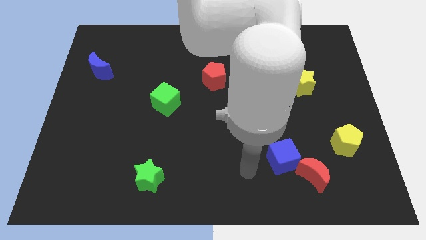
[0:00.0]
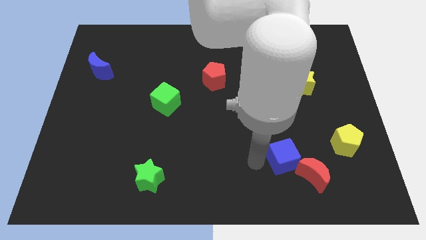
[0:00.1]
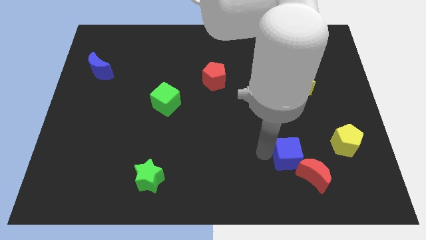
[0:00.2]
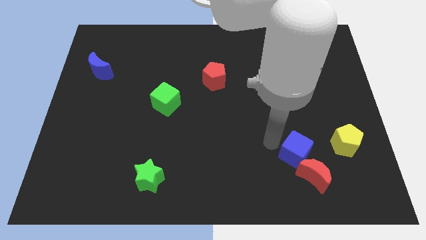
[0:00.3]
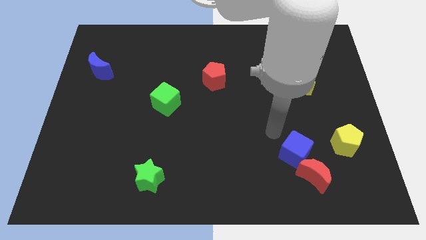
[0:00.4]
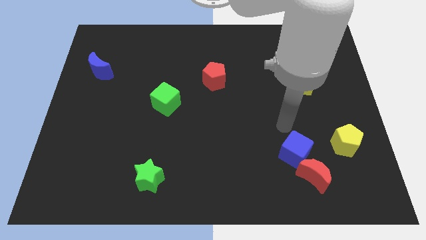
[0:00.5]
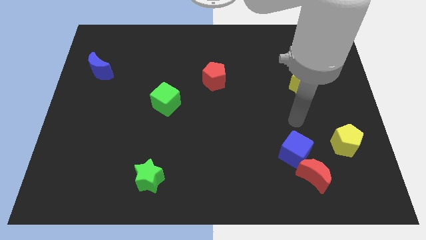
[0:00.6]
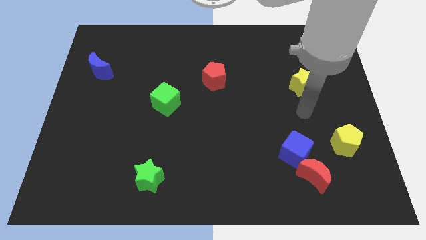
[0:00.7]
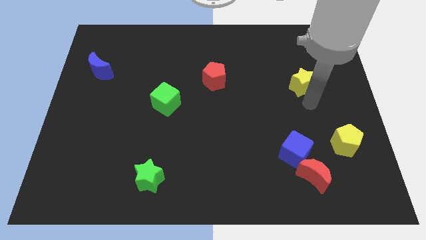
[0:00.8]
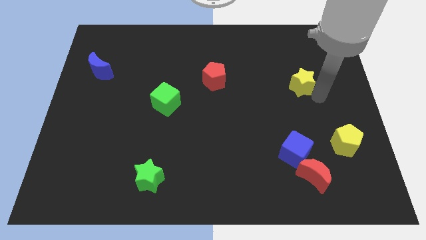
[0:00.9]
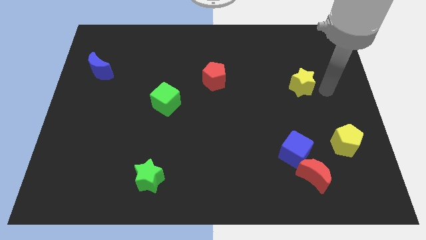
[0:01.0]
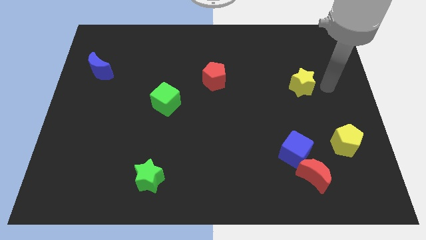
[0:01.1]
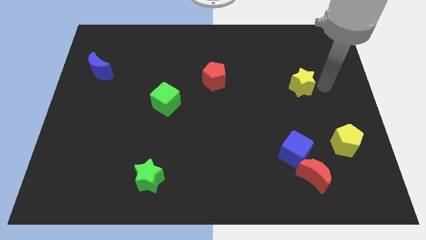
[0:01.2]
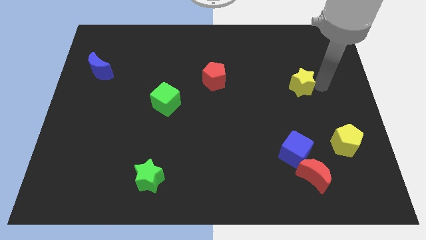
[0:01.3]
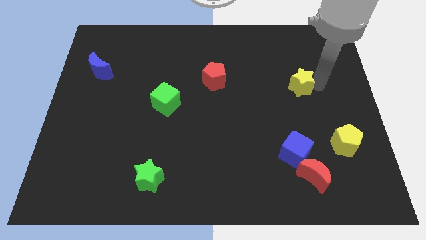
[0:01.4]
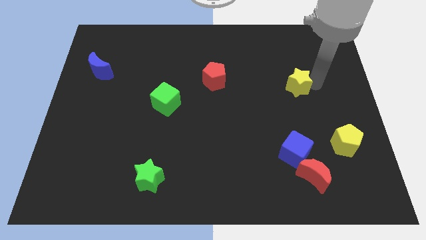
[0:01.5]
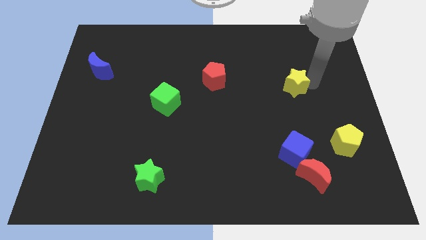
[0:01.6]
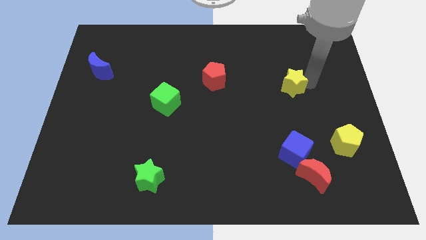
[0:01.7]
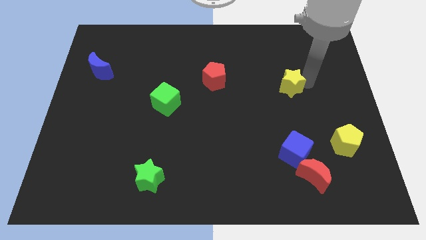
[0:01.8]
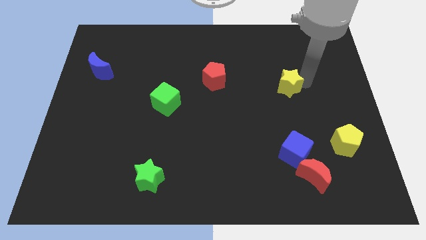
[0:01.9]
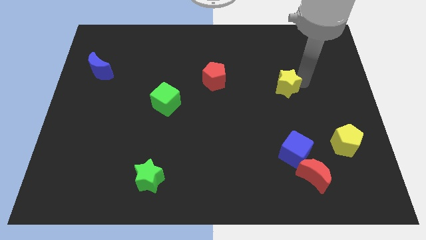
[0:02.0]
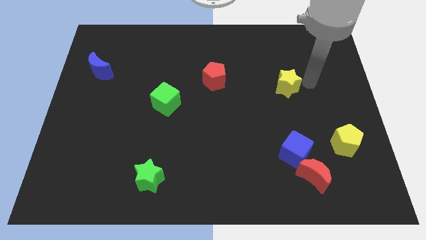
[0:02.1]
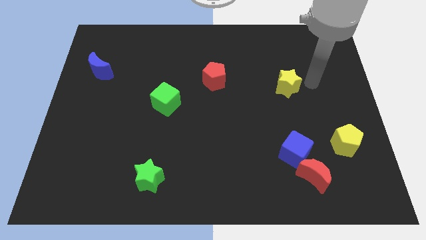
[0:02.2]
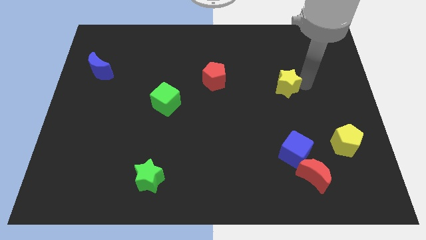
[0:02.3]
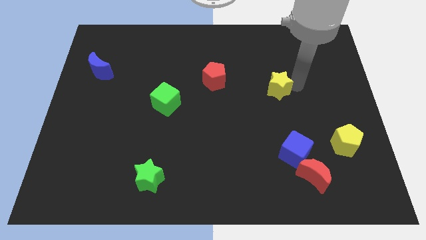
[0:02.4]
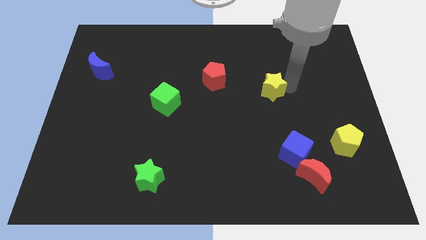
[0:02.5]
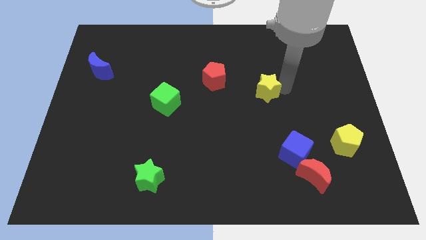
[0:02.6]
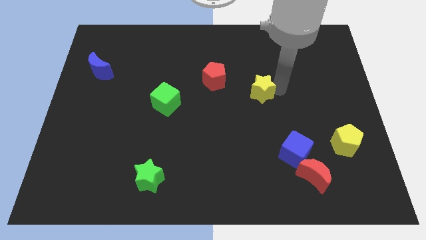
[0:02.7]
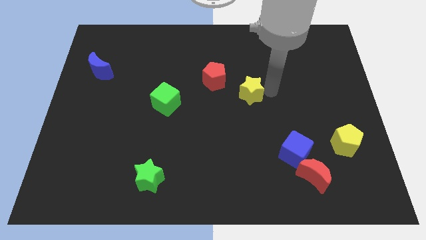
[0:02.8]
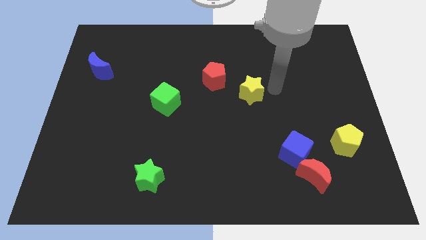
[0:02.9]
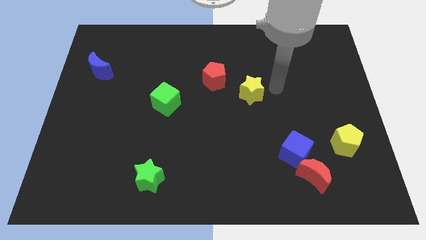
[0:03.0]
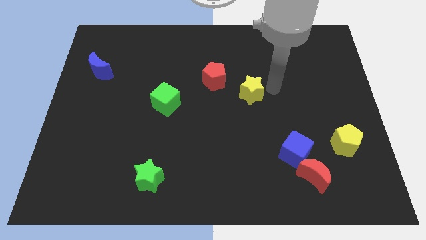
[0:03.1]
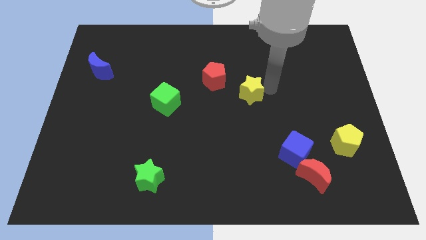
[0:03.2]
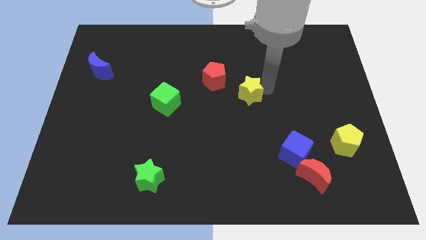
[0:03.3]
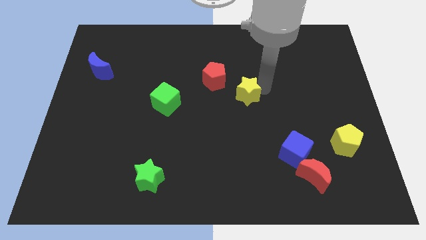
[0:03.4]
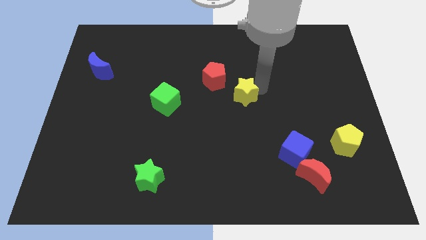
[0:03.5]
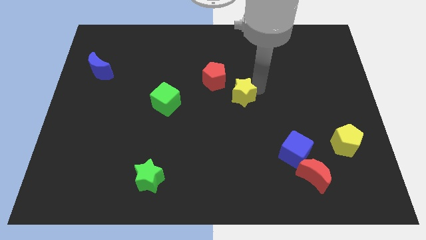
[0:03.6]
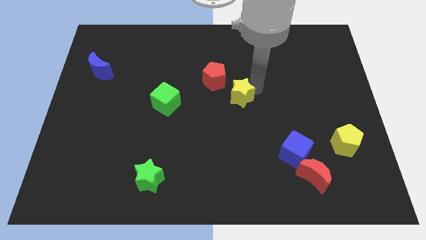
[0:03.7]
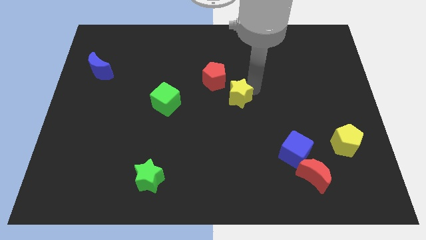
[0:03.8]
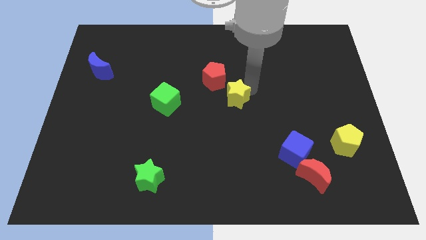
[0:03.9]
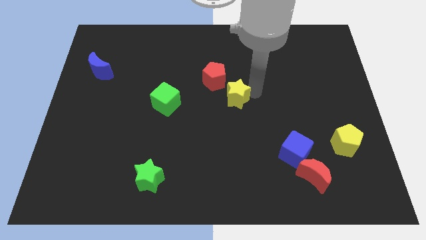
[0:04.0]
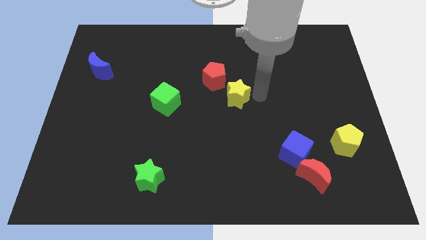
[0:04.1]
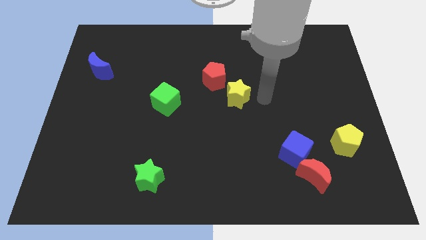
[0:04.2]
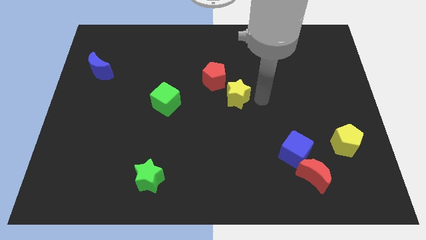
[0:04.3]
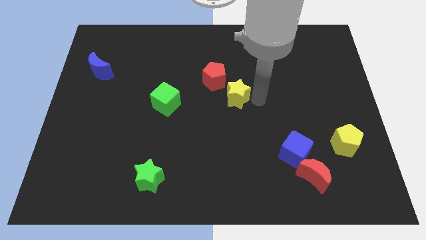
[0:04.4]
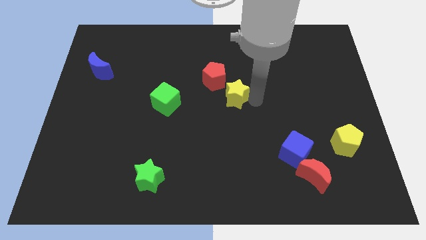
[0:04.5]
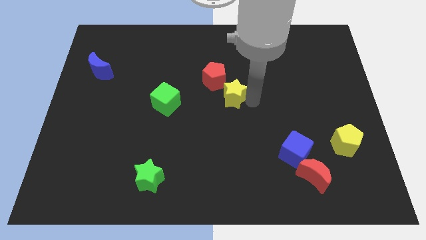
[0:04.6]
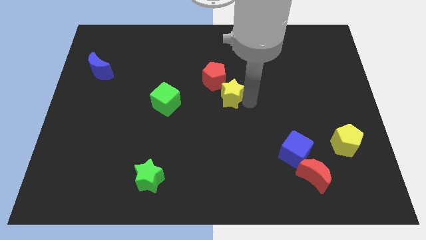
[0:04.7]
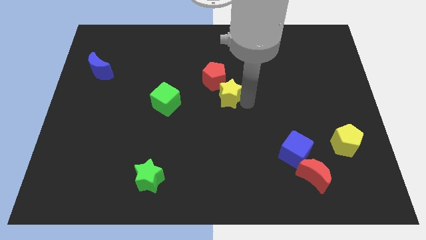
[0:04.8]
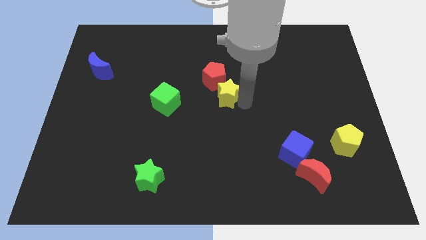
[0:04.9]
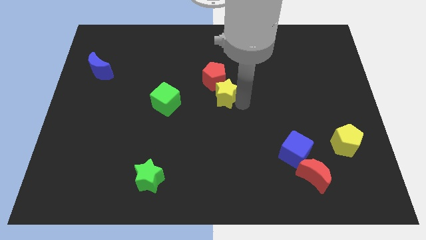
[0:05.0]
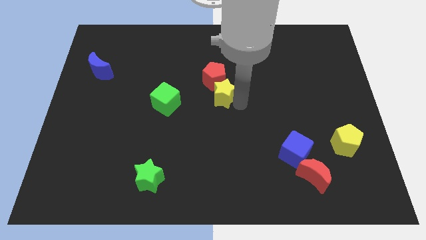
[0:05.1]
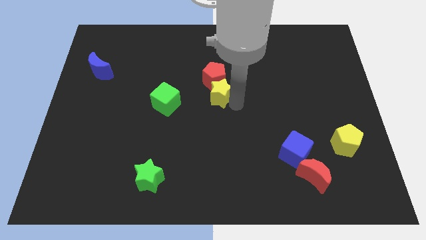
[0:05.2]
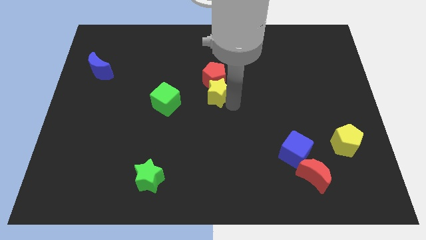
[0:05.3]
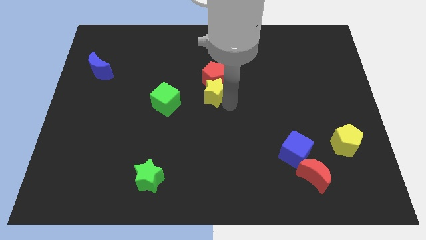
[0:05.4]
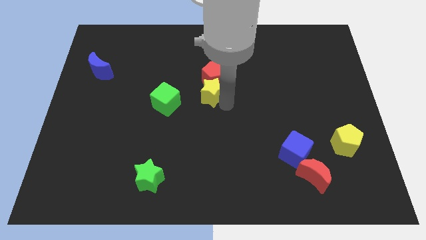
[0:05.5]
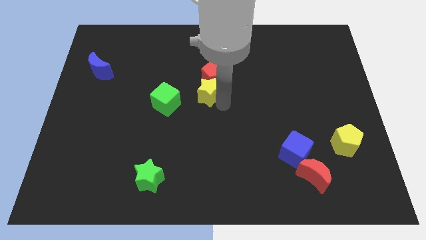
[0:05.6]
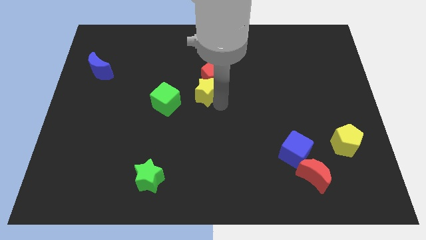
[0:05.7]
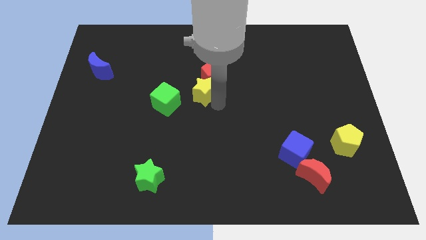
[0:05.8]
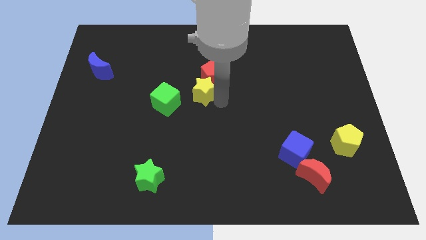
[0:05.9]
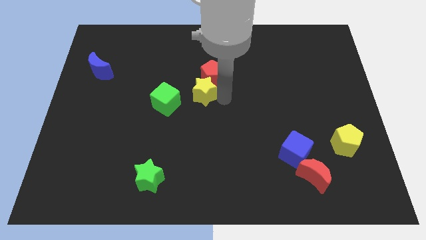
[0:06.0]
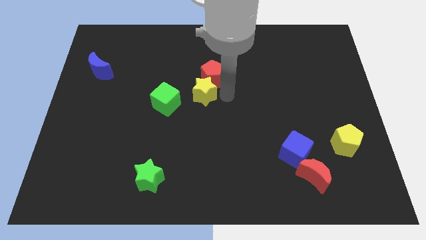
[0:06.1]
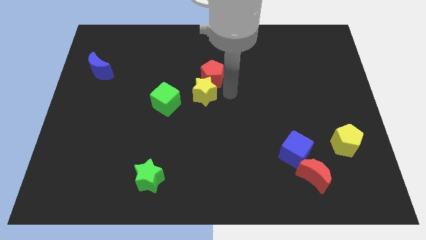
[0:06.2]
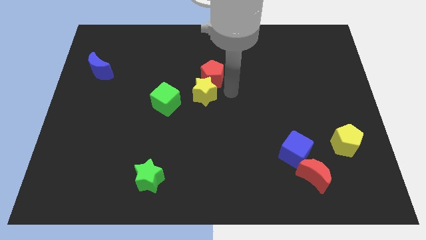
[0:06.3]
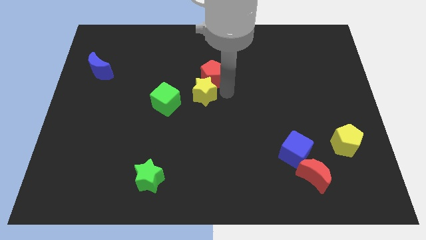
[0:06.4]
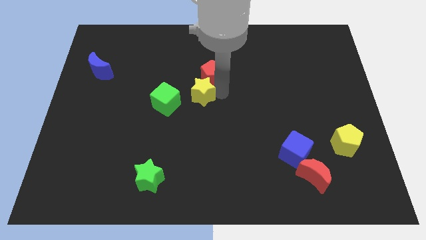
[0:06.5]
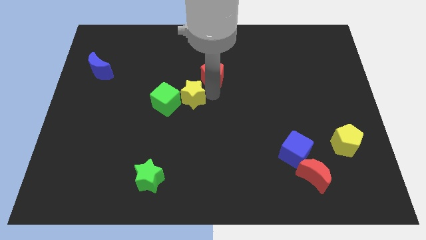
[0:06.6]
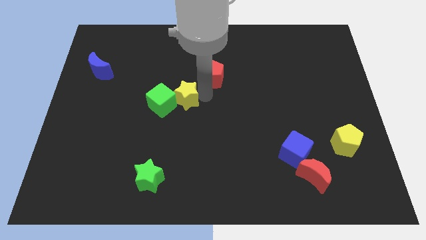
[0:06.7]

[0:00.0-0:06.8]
put the yellow star close to the green cube
